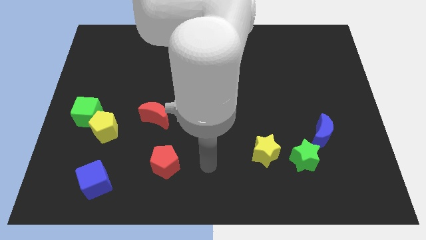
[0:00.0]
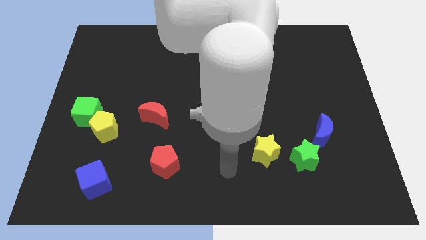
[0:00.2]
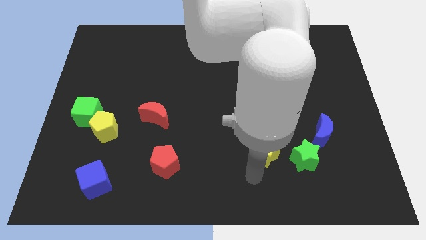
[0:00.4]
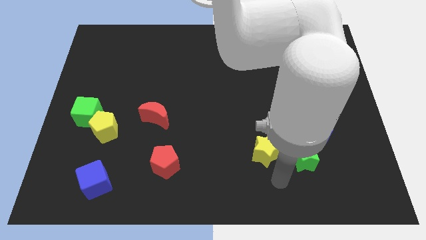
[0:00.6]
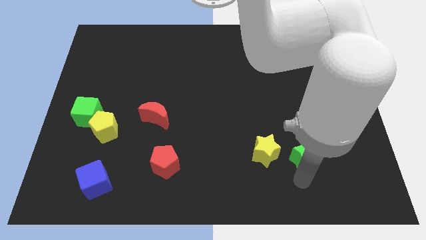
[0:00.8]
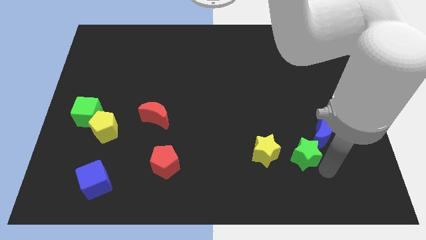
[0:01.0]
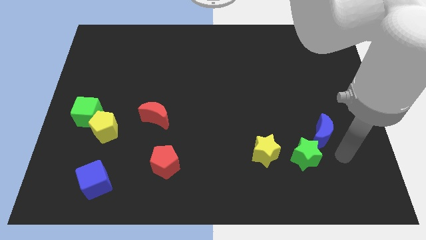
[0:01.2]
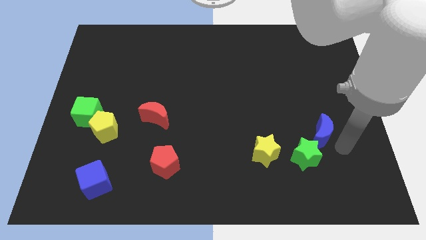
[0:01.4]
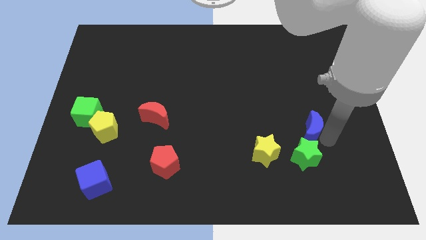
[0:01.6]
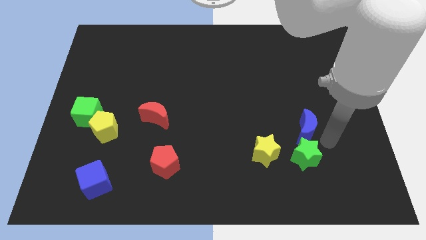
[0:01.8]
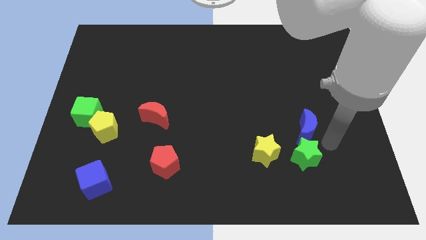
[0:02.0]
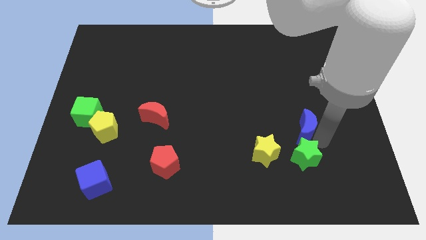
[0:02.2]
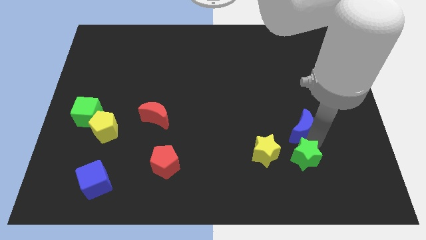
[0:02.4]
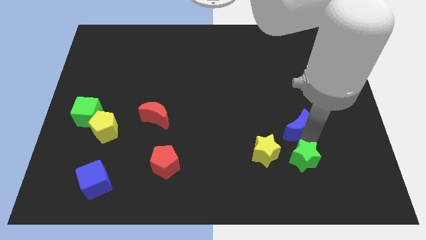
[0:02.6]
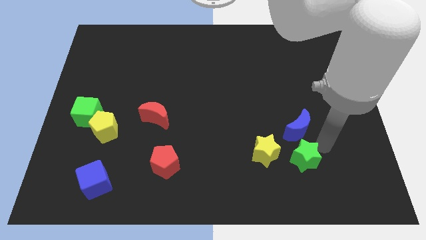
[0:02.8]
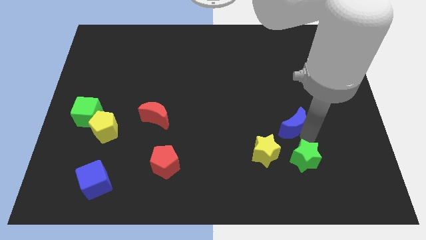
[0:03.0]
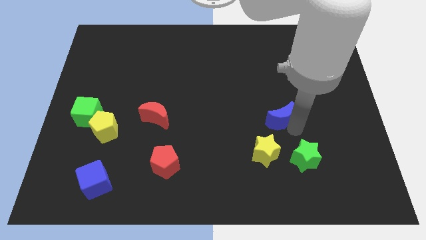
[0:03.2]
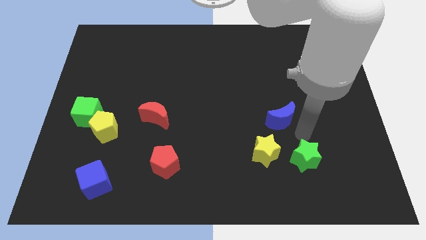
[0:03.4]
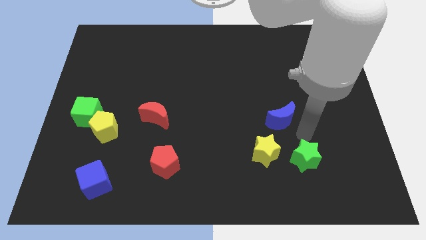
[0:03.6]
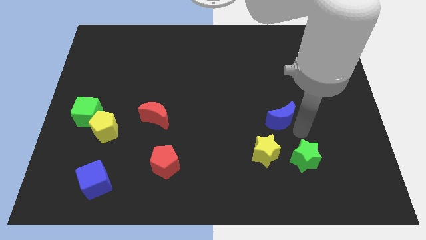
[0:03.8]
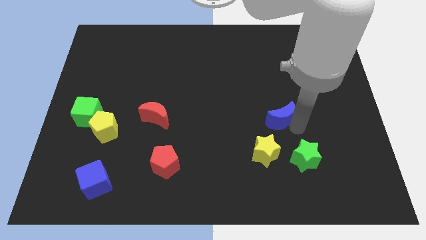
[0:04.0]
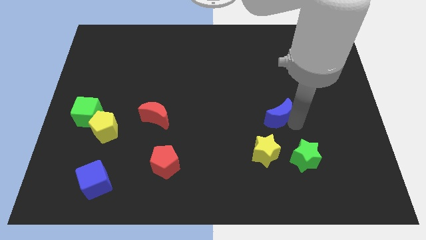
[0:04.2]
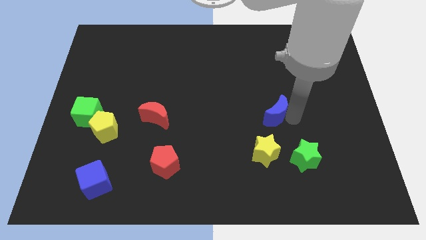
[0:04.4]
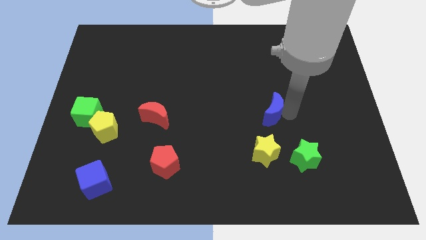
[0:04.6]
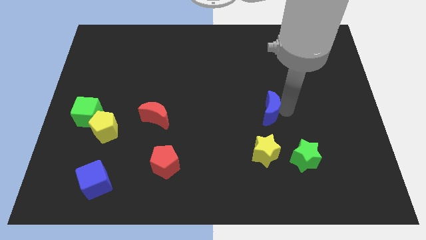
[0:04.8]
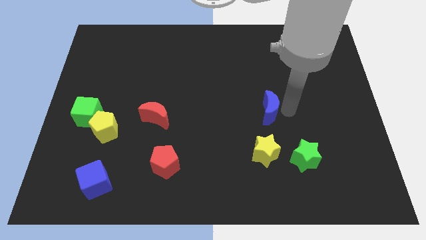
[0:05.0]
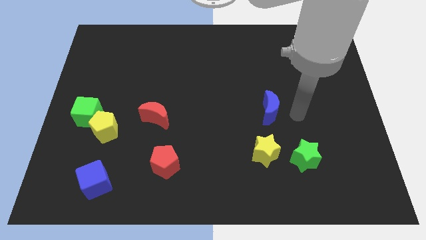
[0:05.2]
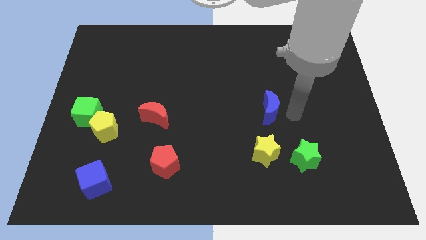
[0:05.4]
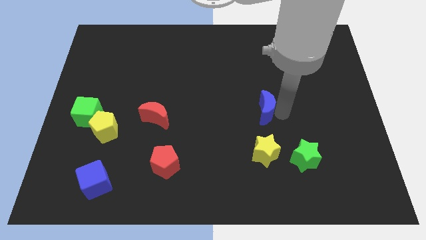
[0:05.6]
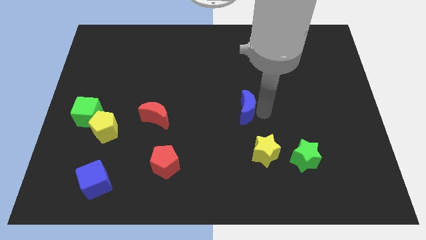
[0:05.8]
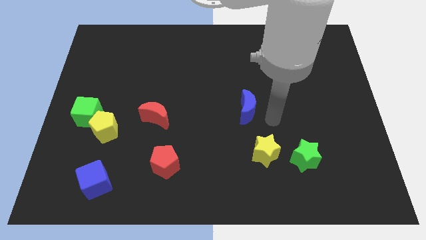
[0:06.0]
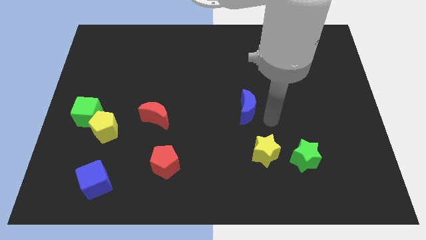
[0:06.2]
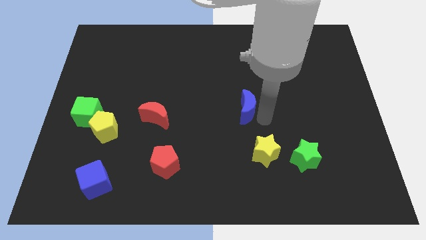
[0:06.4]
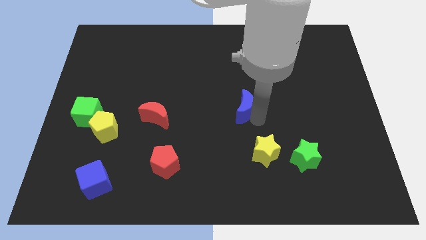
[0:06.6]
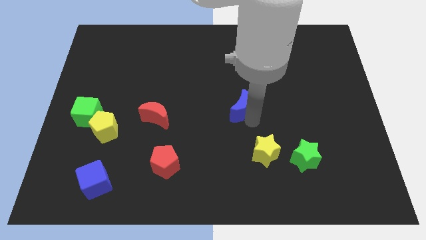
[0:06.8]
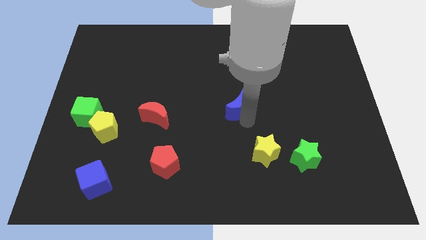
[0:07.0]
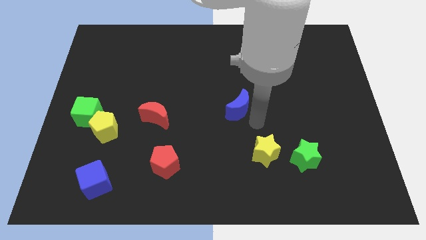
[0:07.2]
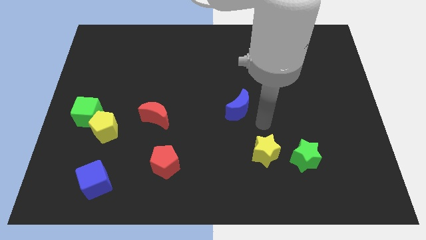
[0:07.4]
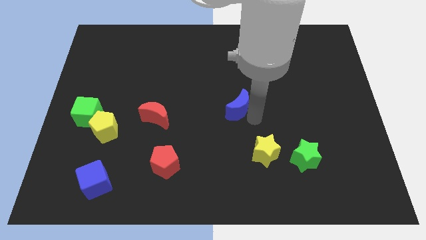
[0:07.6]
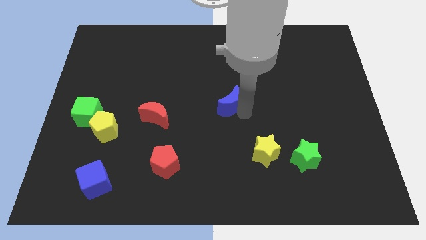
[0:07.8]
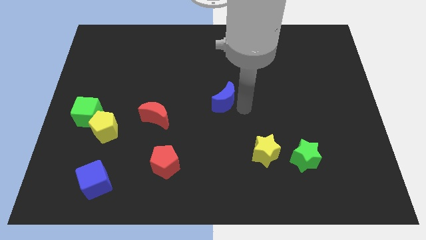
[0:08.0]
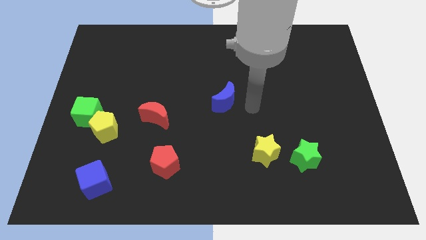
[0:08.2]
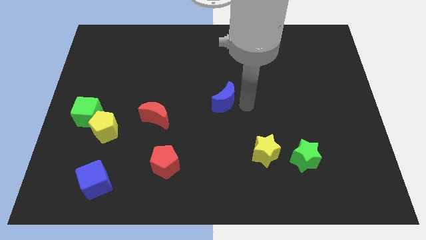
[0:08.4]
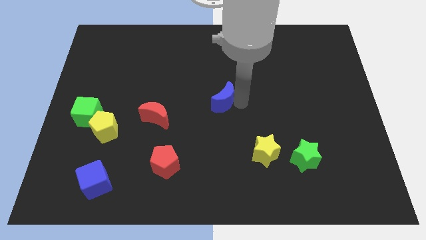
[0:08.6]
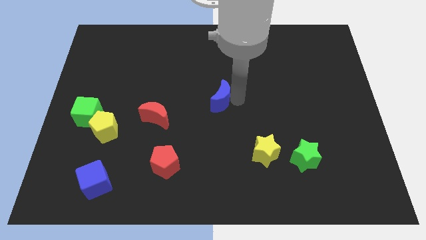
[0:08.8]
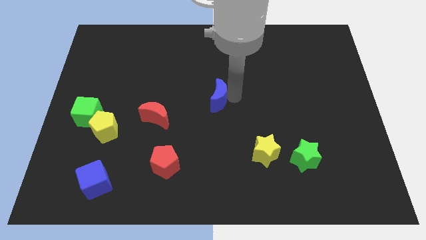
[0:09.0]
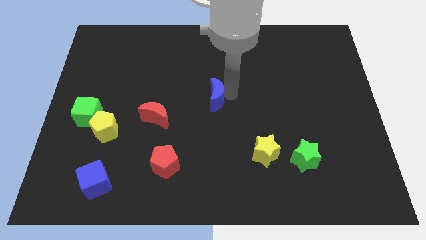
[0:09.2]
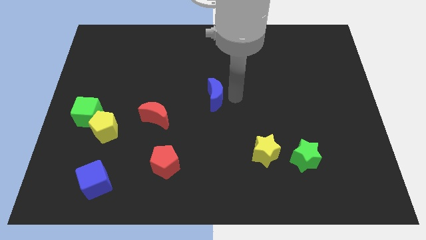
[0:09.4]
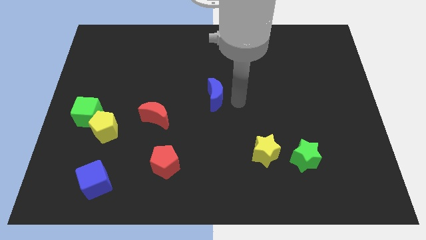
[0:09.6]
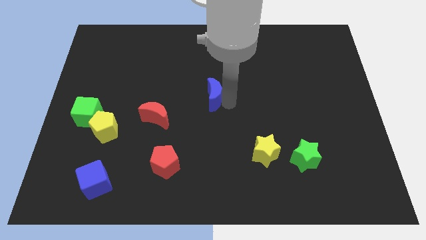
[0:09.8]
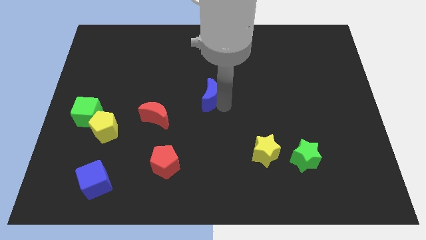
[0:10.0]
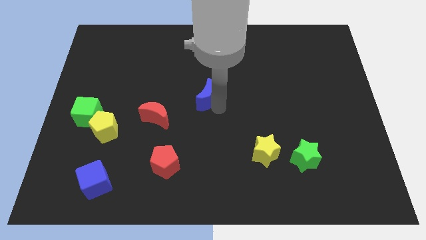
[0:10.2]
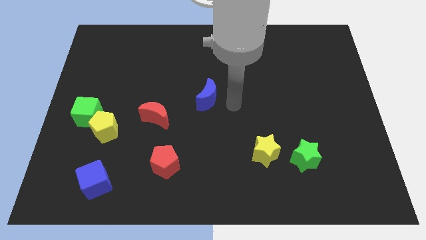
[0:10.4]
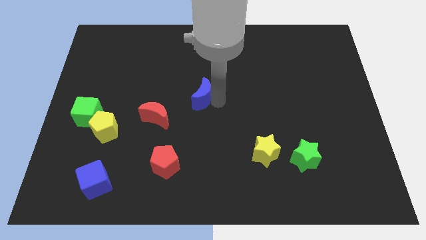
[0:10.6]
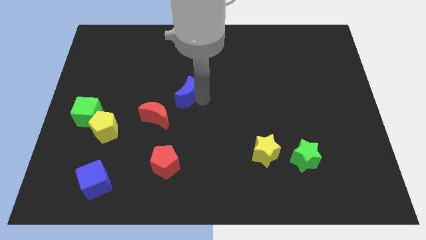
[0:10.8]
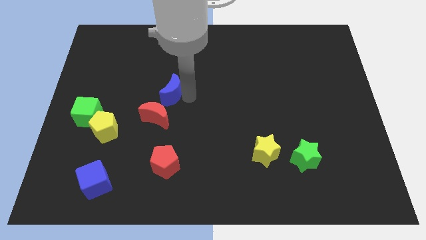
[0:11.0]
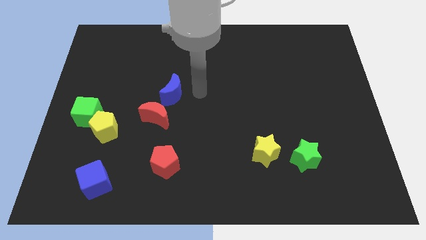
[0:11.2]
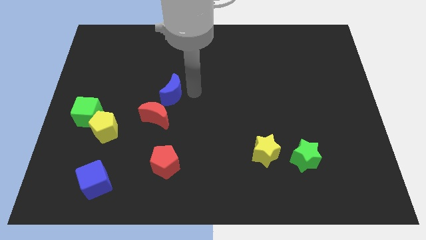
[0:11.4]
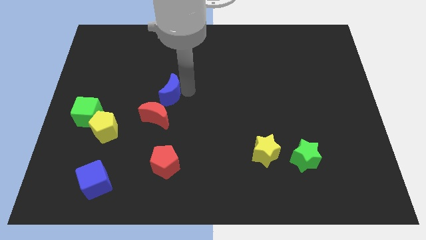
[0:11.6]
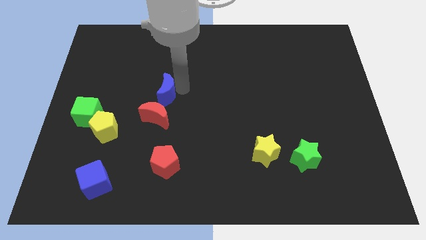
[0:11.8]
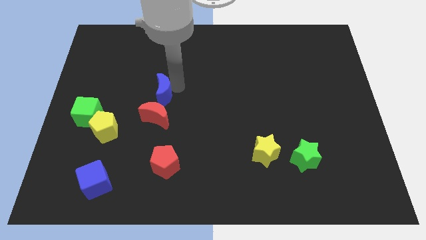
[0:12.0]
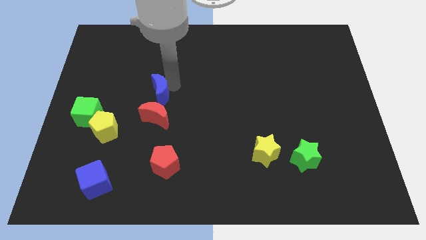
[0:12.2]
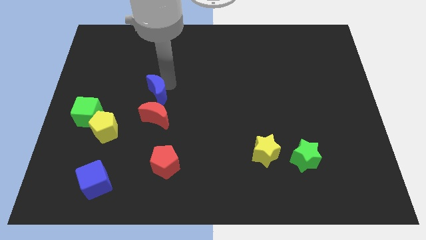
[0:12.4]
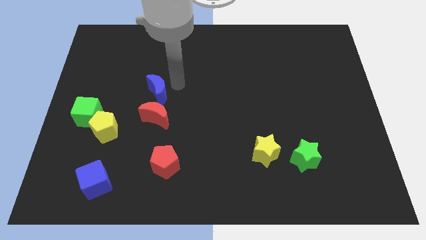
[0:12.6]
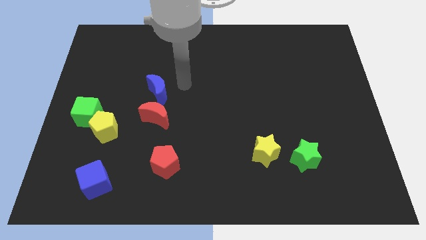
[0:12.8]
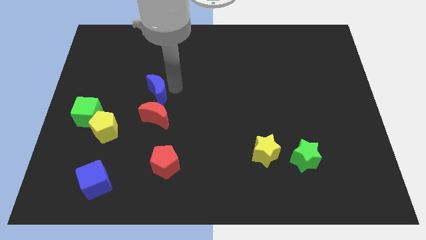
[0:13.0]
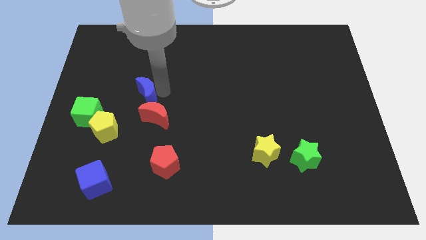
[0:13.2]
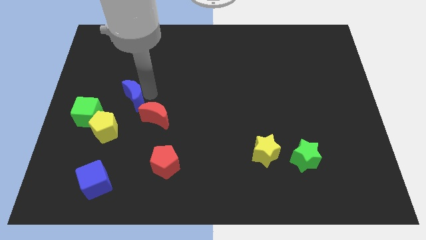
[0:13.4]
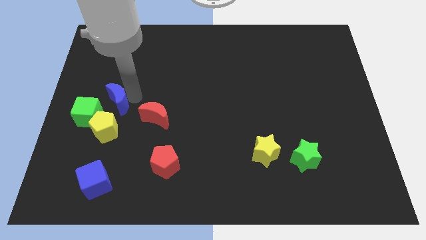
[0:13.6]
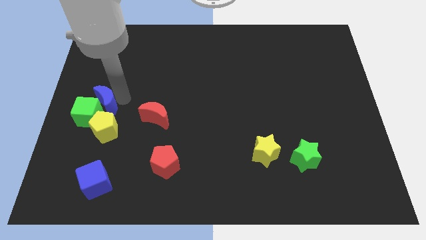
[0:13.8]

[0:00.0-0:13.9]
put the blue moon next to the green cube

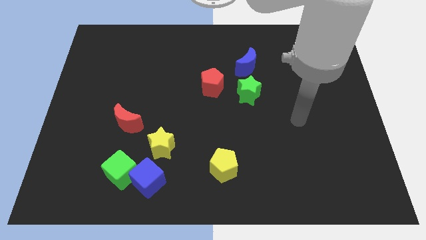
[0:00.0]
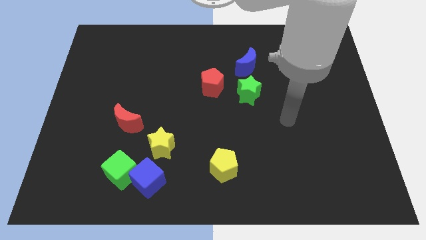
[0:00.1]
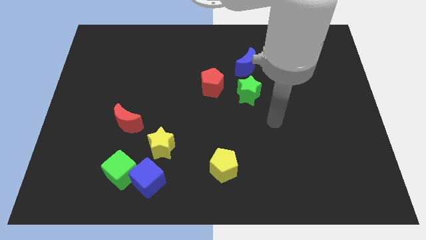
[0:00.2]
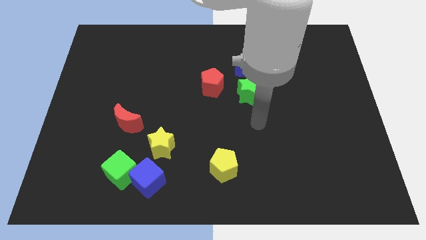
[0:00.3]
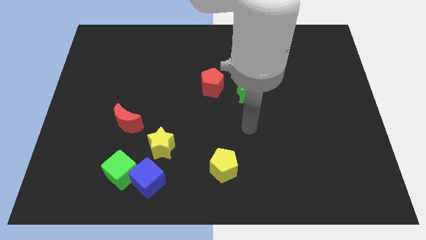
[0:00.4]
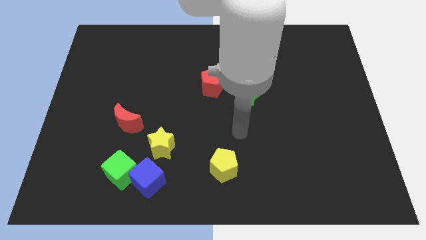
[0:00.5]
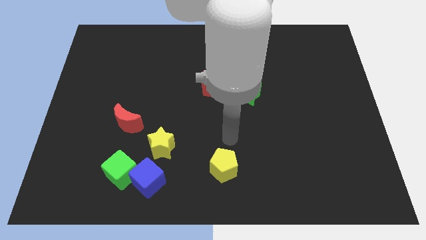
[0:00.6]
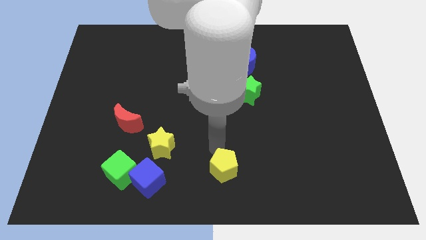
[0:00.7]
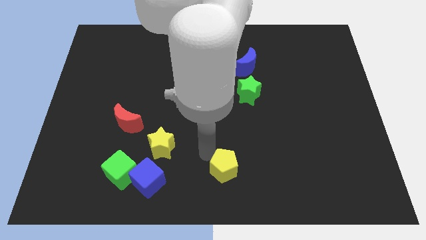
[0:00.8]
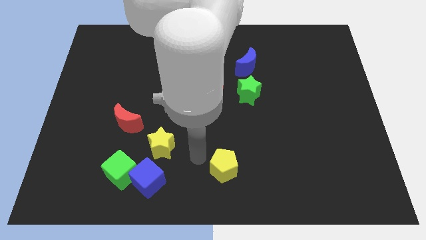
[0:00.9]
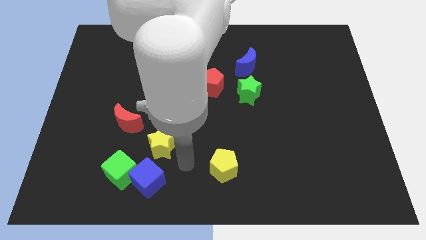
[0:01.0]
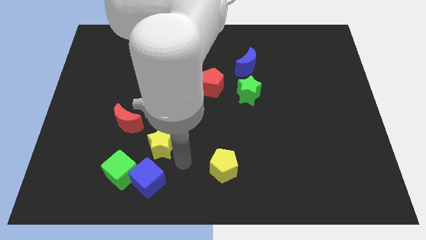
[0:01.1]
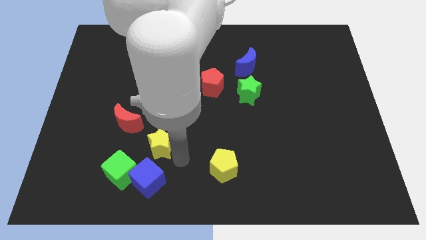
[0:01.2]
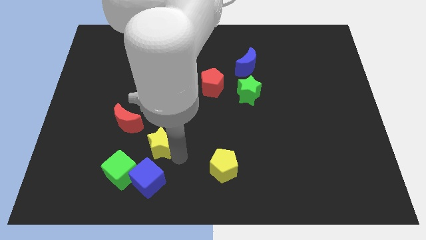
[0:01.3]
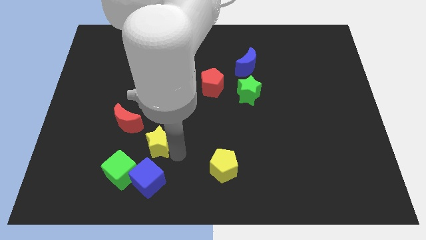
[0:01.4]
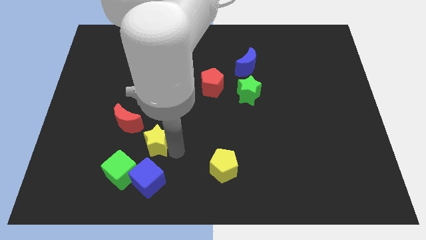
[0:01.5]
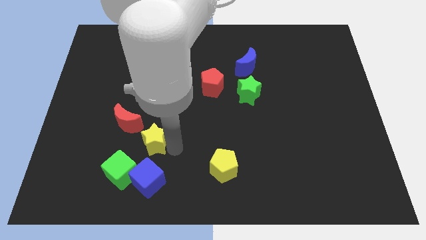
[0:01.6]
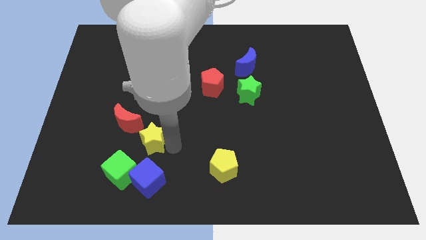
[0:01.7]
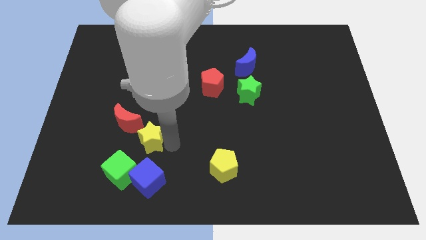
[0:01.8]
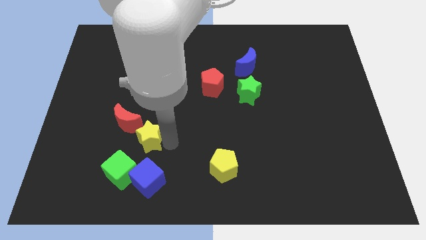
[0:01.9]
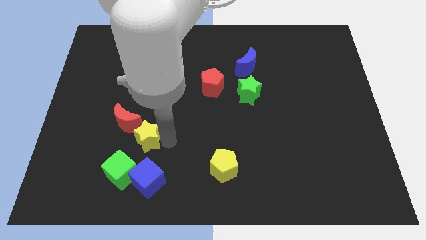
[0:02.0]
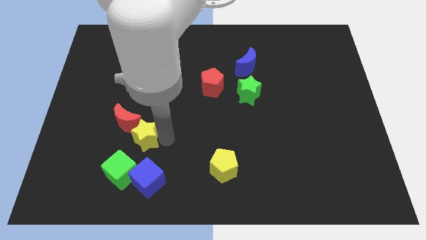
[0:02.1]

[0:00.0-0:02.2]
push the yellow star close to the red moon
